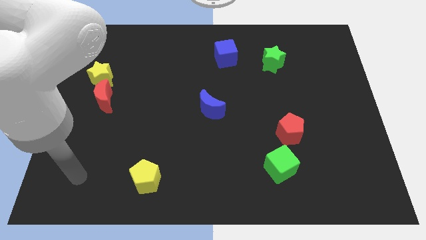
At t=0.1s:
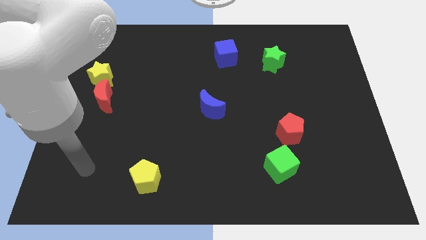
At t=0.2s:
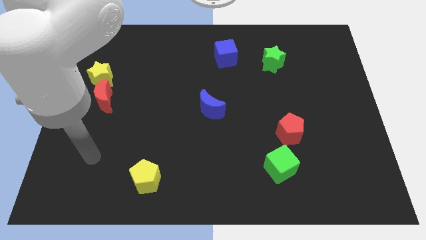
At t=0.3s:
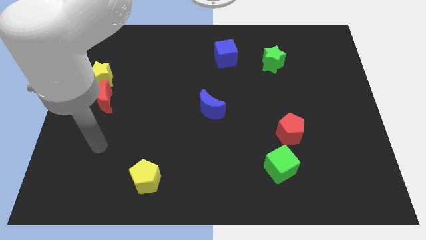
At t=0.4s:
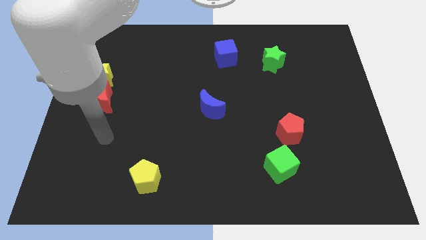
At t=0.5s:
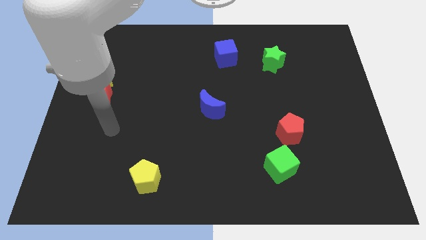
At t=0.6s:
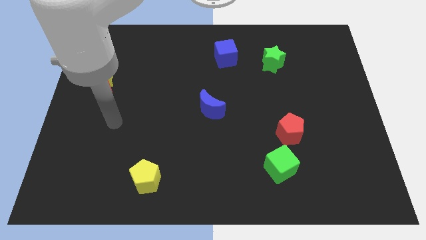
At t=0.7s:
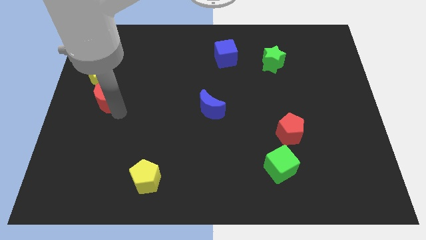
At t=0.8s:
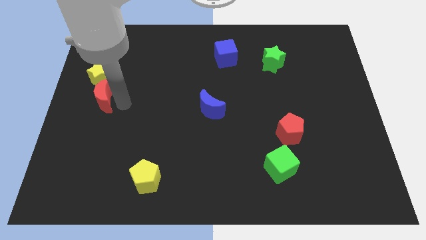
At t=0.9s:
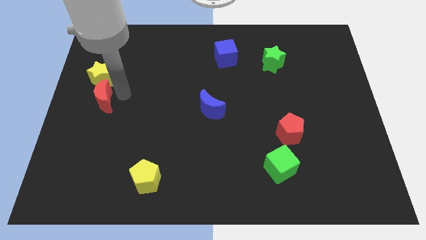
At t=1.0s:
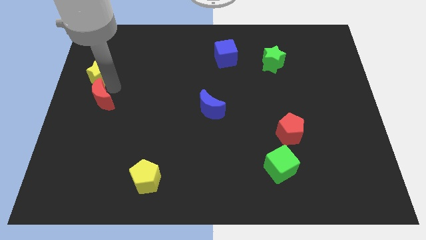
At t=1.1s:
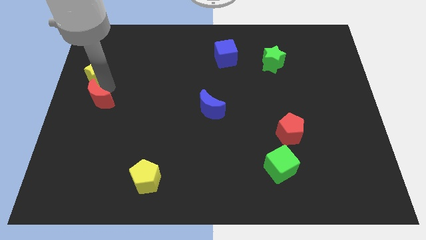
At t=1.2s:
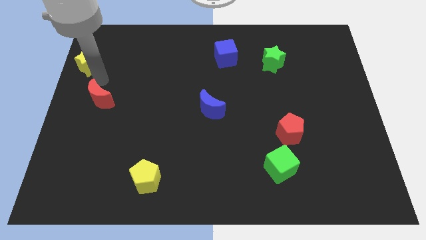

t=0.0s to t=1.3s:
pull the red moon apart from the yellow star

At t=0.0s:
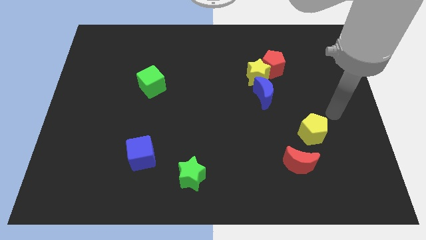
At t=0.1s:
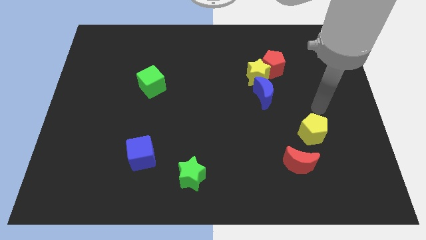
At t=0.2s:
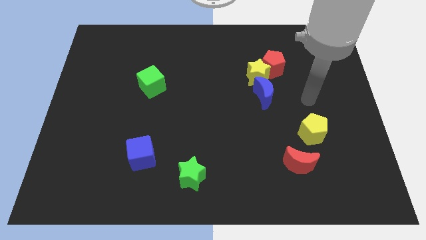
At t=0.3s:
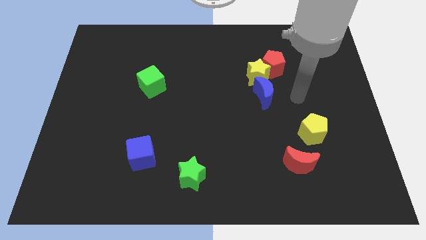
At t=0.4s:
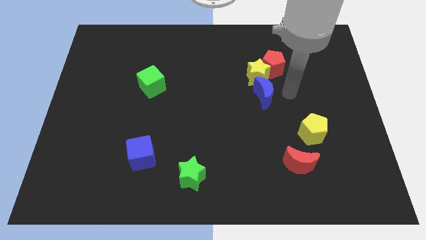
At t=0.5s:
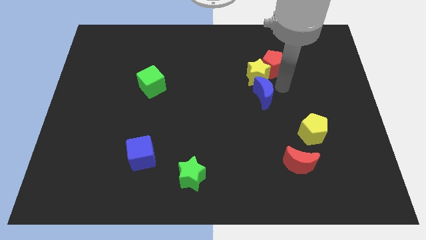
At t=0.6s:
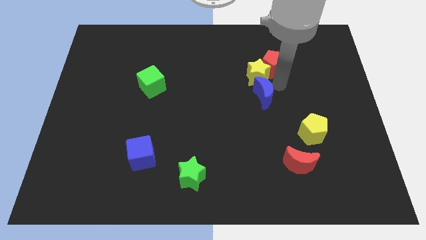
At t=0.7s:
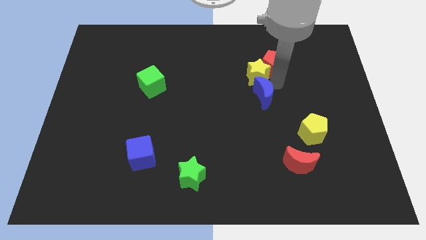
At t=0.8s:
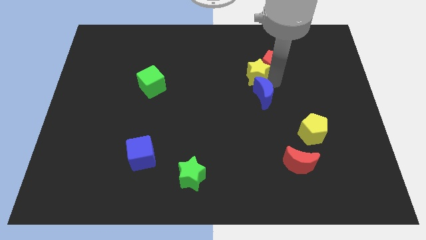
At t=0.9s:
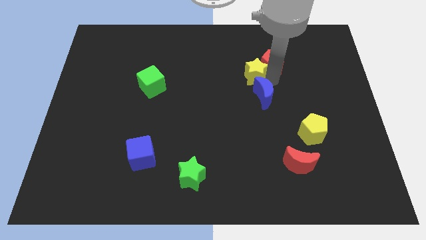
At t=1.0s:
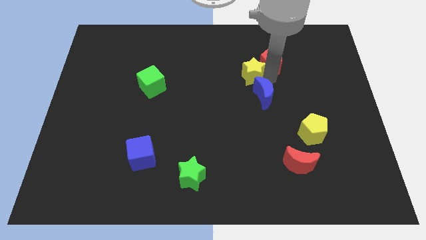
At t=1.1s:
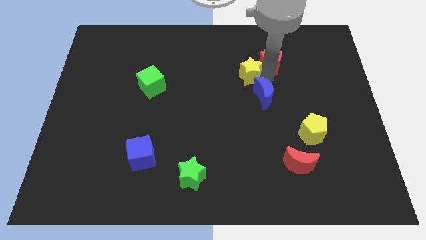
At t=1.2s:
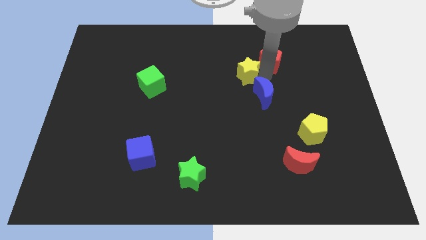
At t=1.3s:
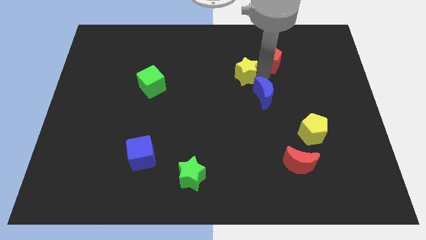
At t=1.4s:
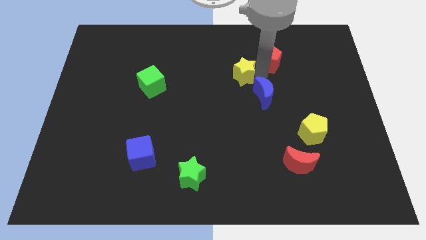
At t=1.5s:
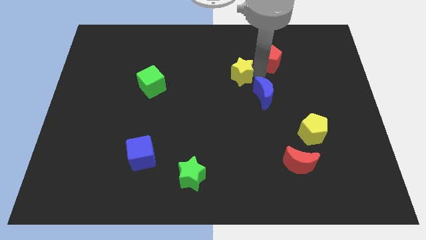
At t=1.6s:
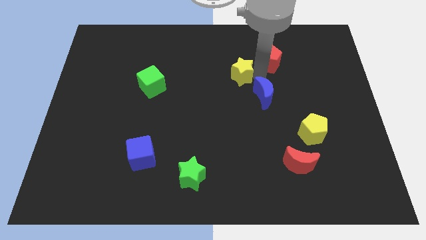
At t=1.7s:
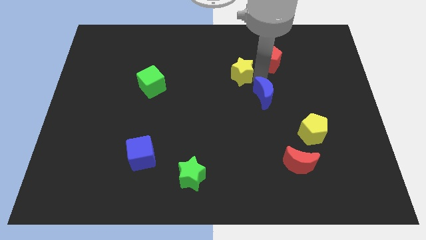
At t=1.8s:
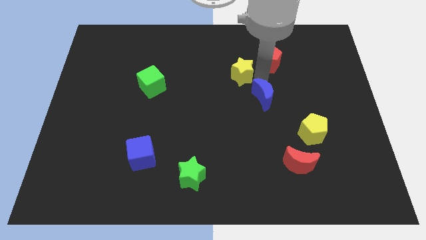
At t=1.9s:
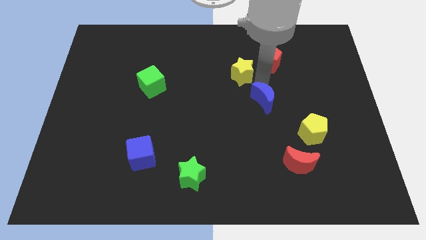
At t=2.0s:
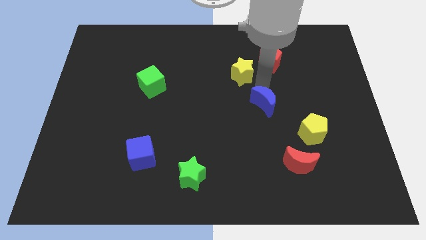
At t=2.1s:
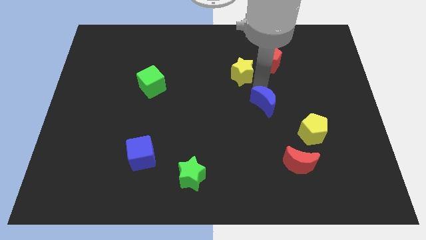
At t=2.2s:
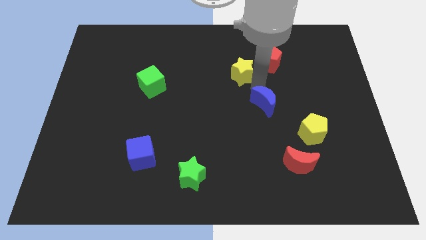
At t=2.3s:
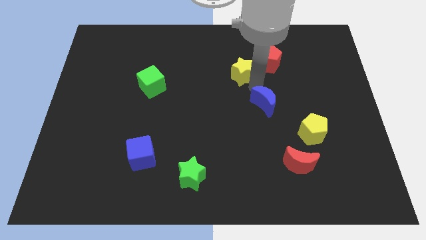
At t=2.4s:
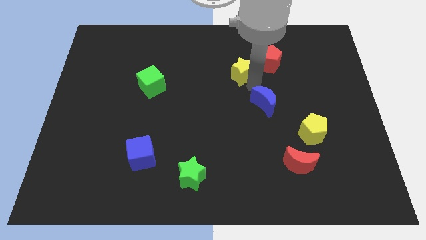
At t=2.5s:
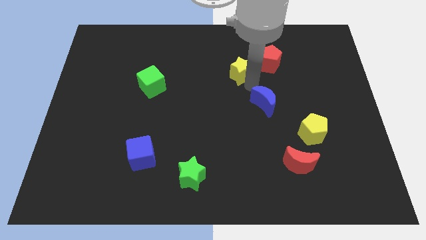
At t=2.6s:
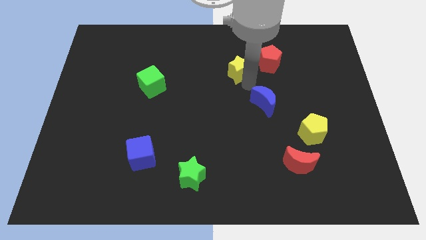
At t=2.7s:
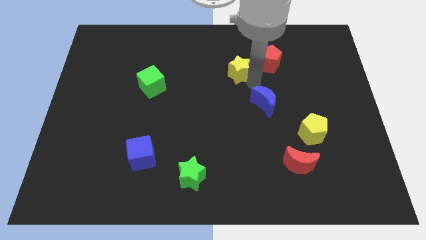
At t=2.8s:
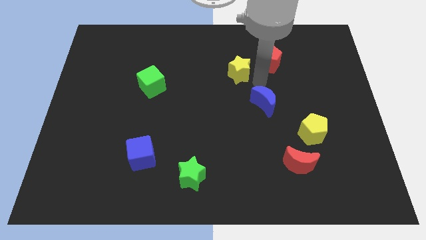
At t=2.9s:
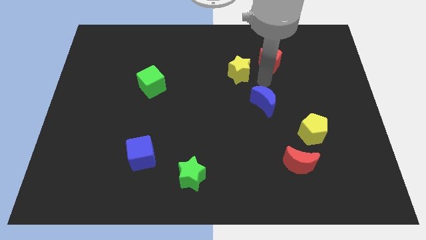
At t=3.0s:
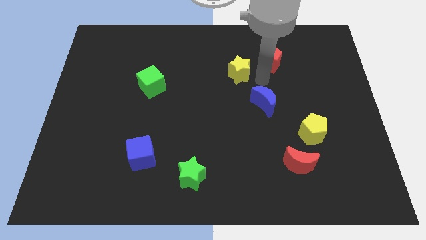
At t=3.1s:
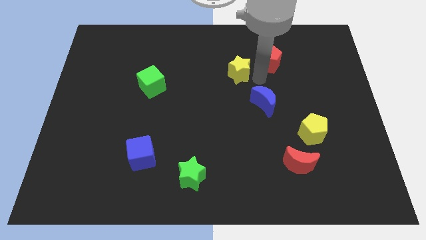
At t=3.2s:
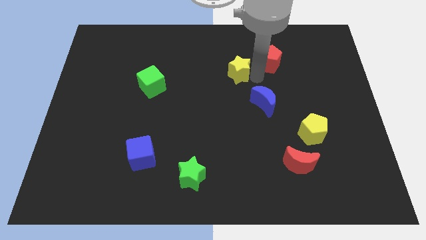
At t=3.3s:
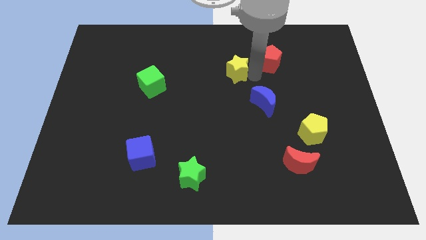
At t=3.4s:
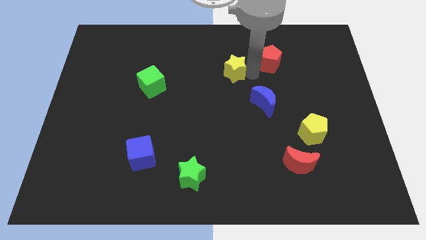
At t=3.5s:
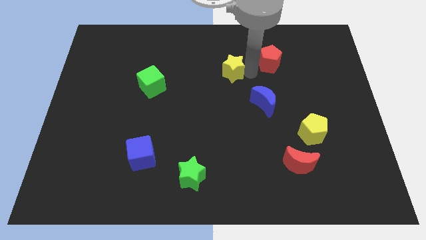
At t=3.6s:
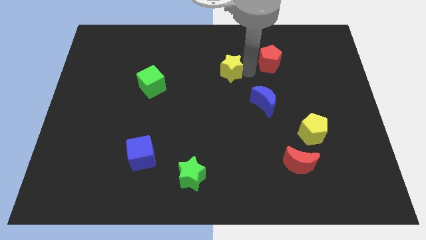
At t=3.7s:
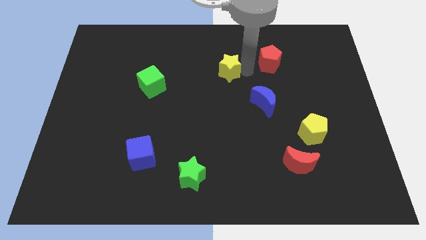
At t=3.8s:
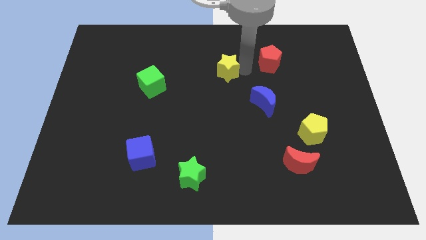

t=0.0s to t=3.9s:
pull the yellow star apart from the red pentagon and blue moon

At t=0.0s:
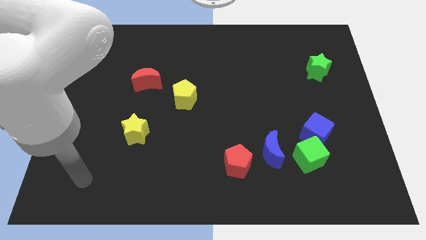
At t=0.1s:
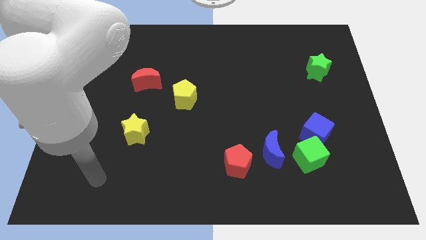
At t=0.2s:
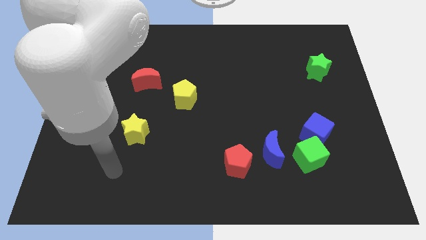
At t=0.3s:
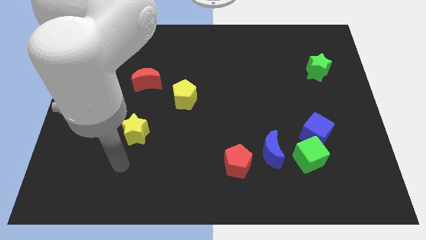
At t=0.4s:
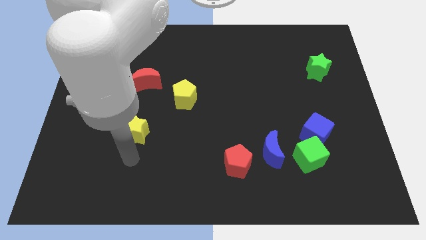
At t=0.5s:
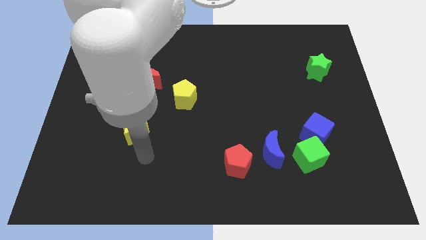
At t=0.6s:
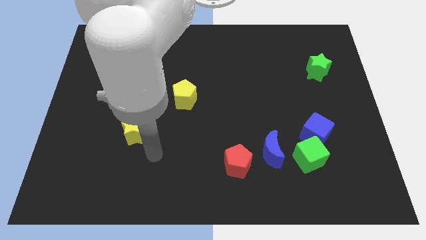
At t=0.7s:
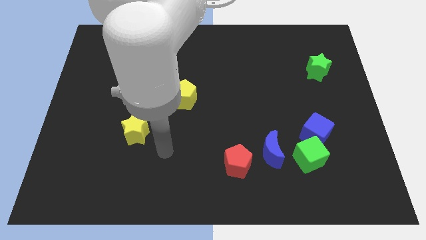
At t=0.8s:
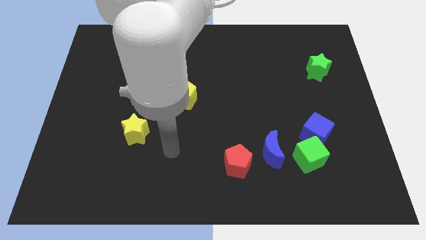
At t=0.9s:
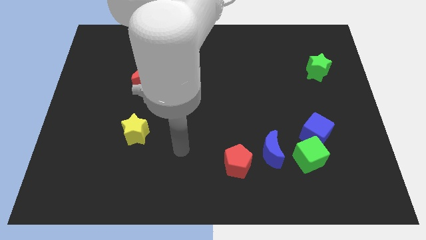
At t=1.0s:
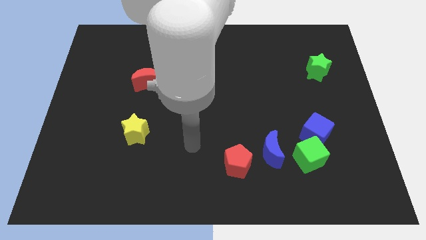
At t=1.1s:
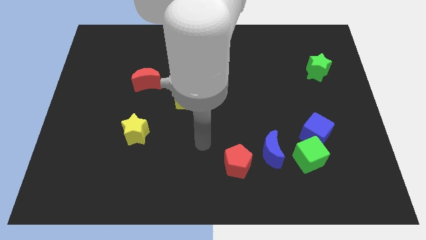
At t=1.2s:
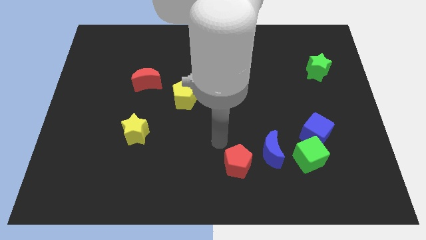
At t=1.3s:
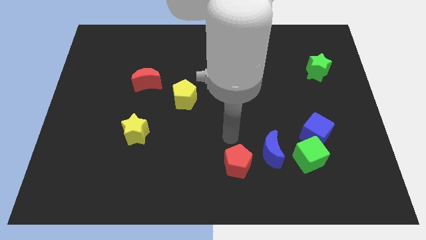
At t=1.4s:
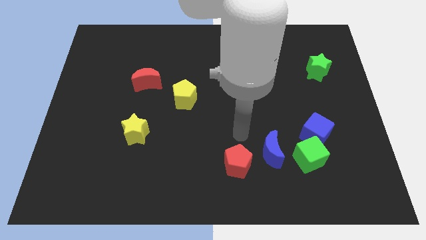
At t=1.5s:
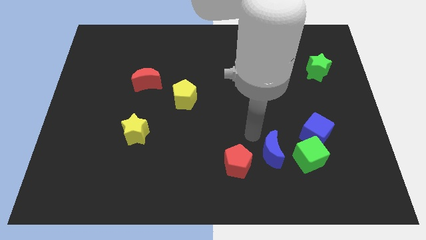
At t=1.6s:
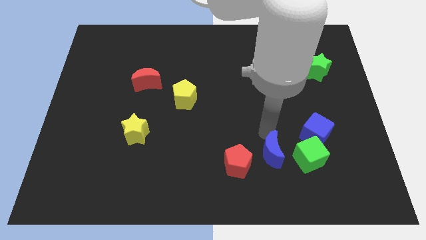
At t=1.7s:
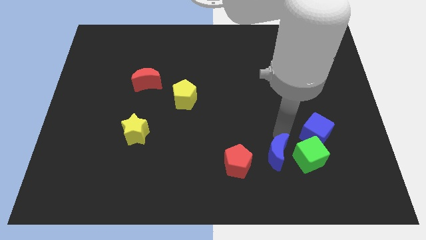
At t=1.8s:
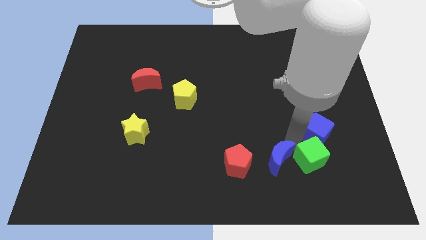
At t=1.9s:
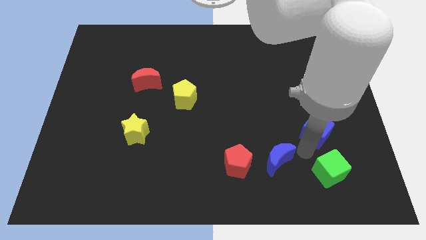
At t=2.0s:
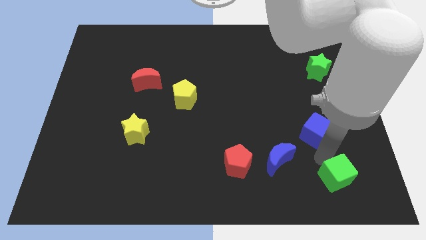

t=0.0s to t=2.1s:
pull the blue cube apart from the green cube

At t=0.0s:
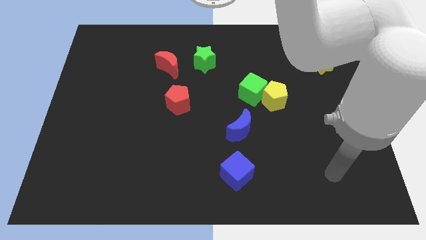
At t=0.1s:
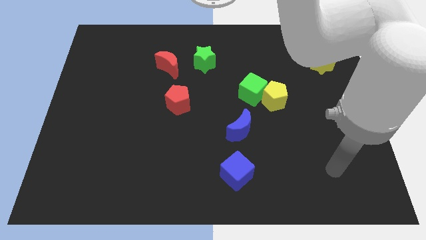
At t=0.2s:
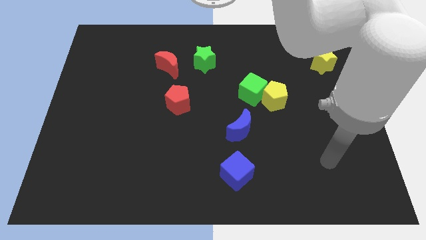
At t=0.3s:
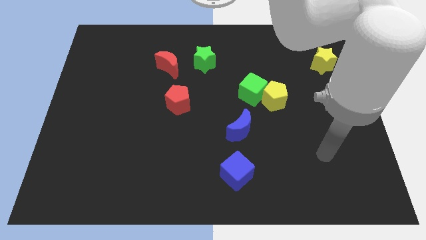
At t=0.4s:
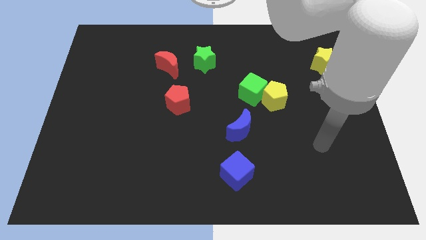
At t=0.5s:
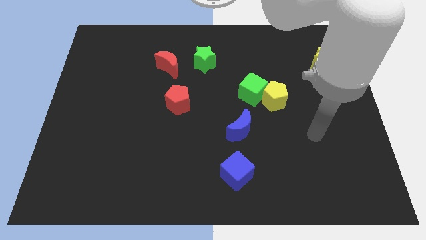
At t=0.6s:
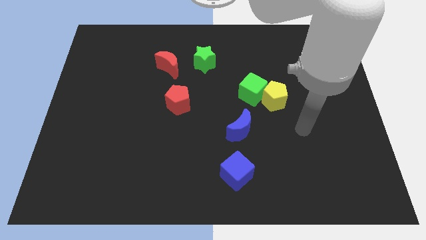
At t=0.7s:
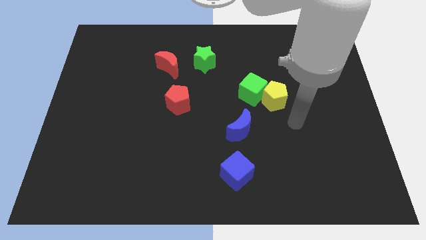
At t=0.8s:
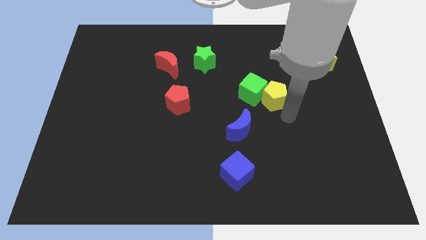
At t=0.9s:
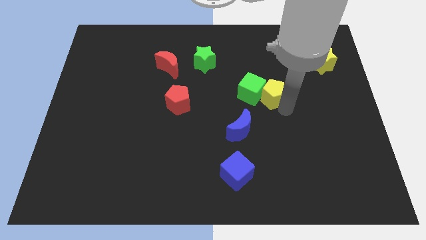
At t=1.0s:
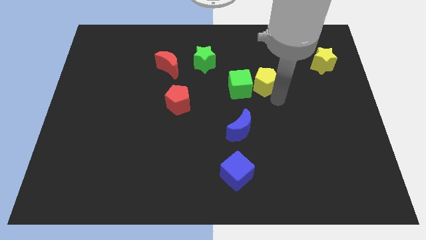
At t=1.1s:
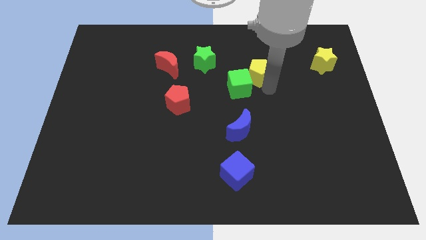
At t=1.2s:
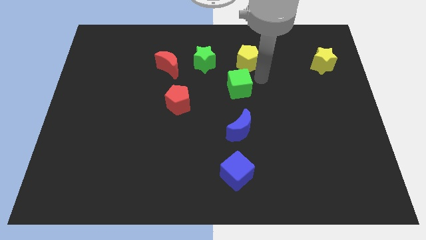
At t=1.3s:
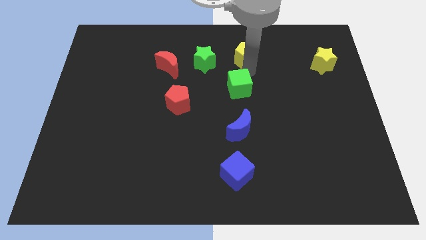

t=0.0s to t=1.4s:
pull the green cube apart from the yellow pentagon

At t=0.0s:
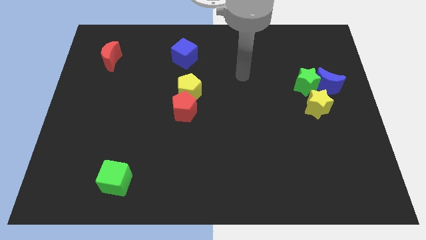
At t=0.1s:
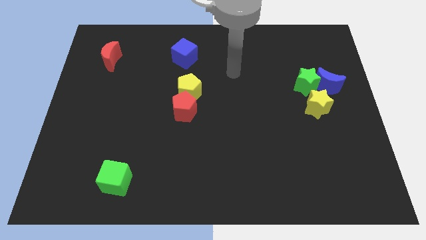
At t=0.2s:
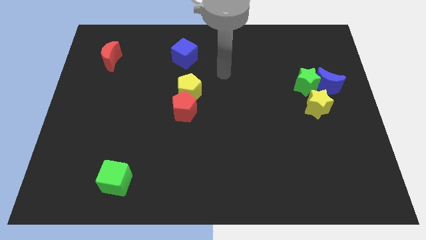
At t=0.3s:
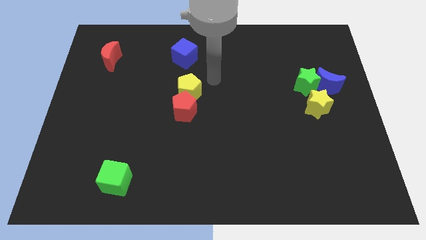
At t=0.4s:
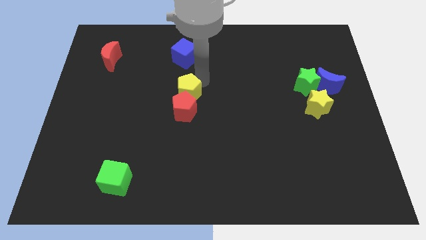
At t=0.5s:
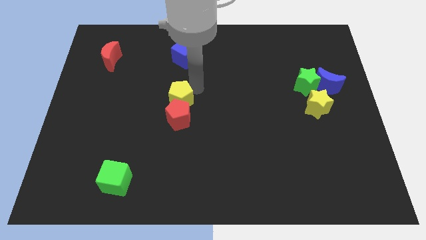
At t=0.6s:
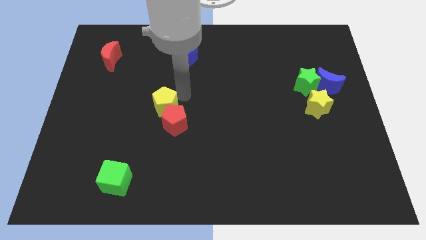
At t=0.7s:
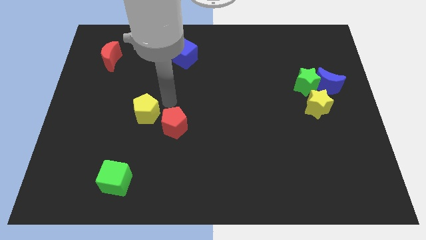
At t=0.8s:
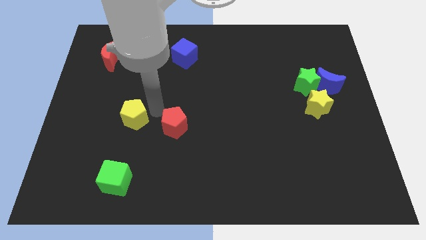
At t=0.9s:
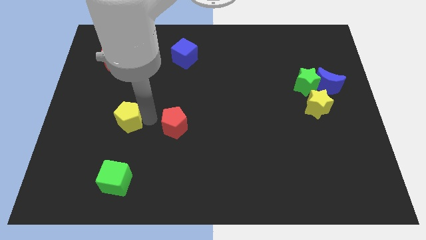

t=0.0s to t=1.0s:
move the red pentagon away from the yellow pentagon
